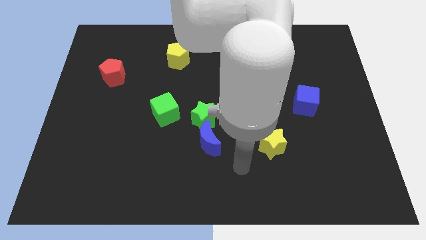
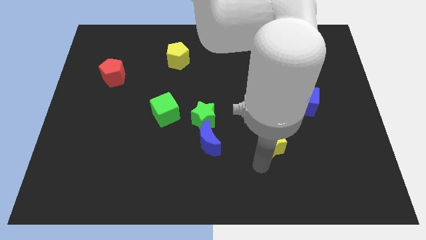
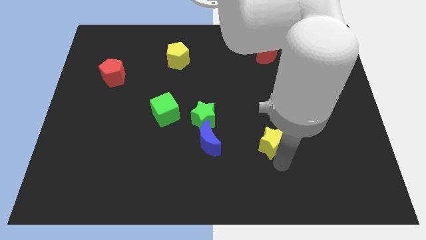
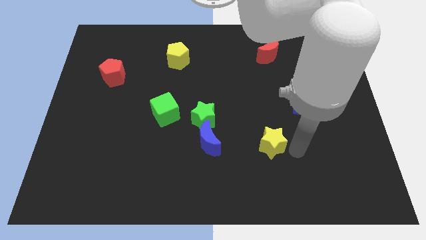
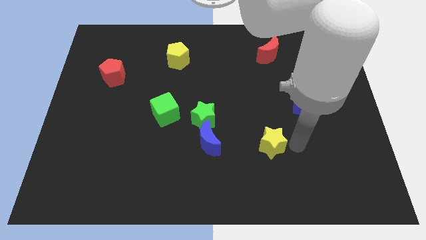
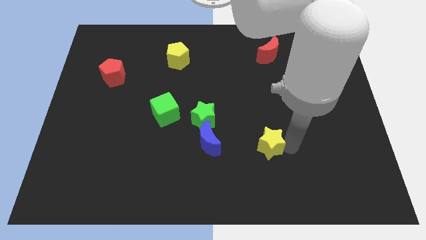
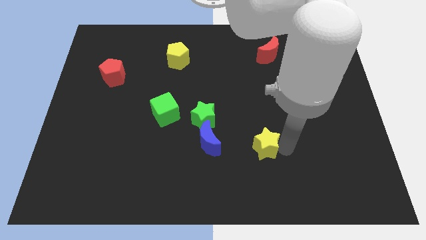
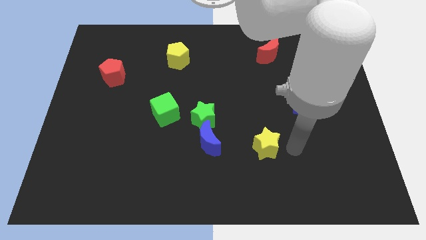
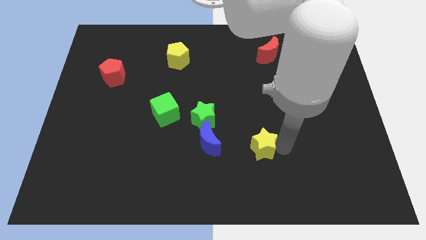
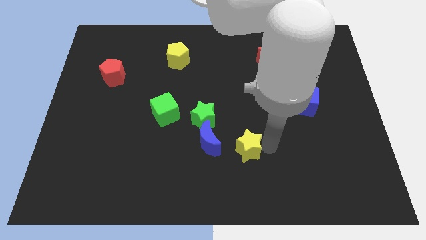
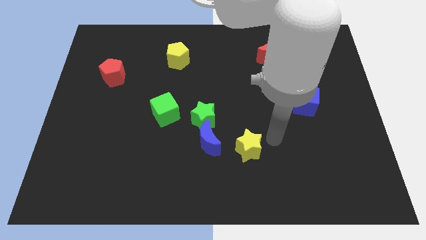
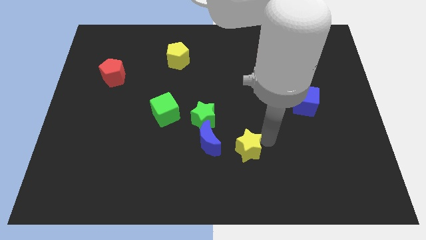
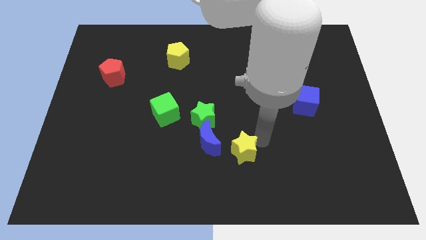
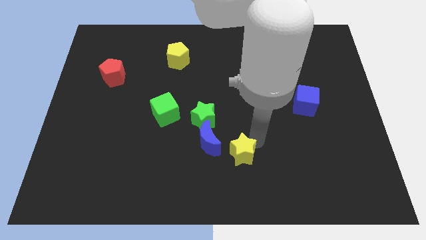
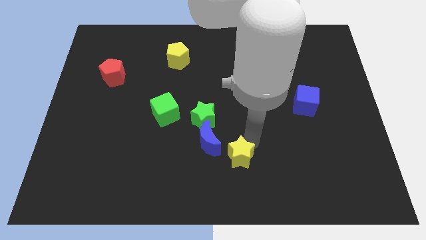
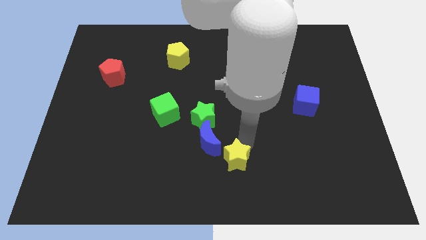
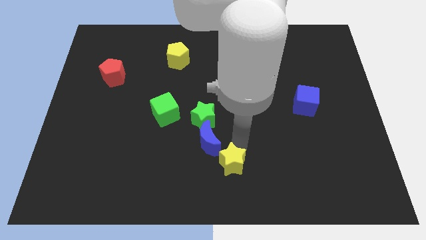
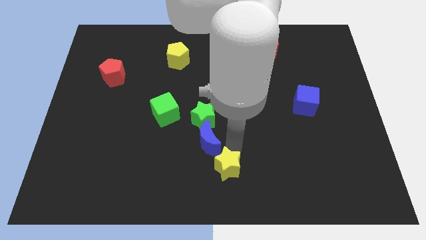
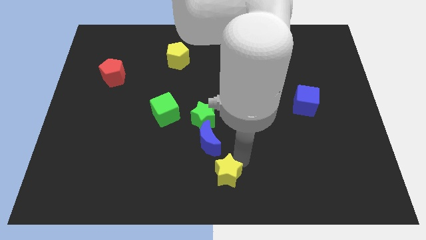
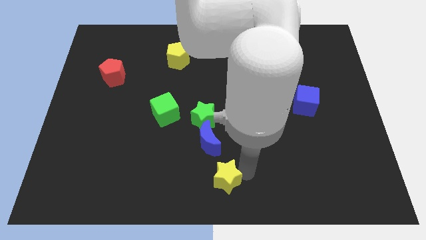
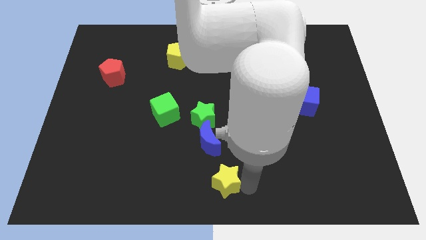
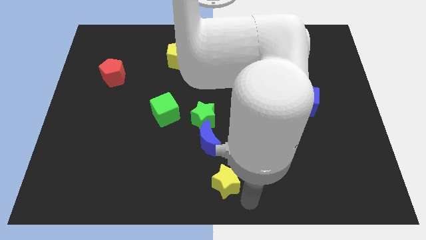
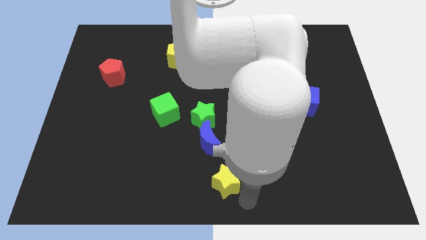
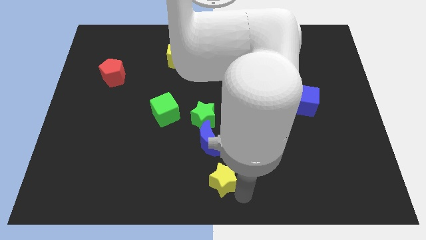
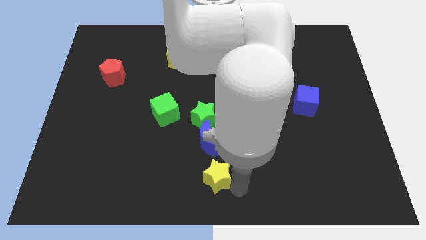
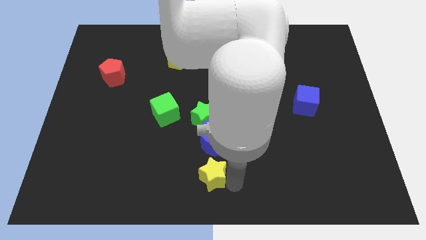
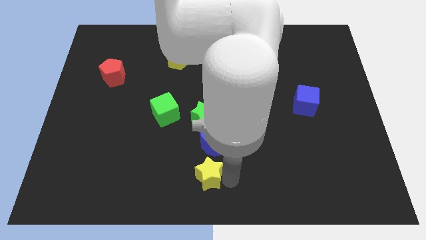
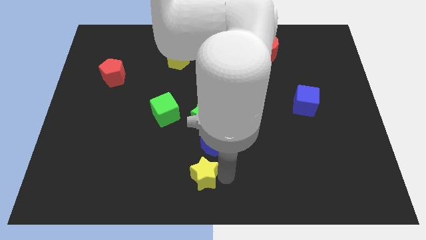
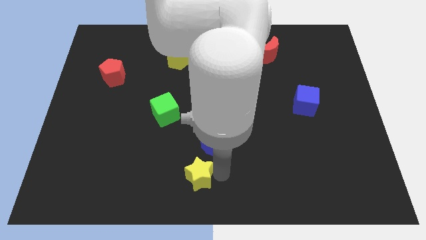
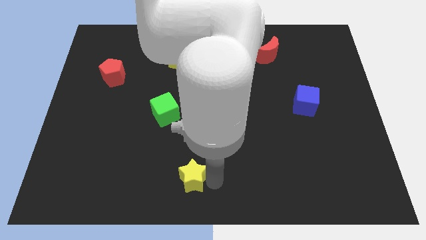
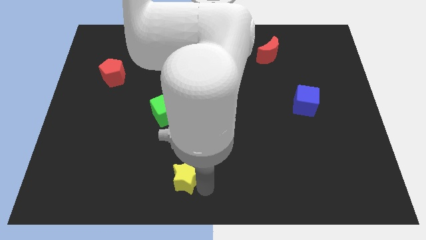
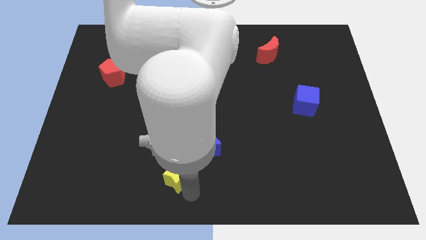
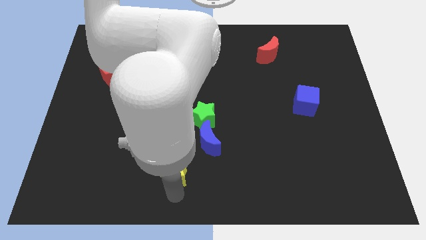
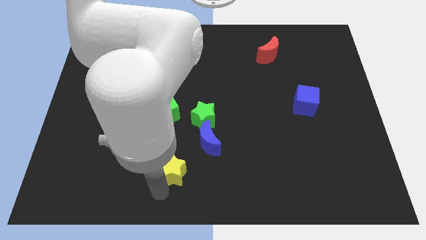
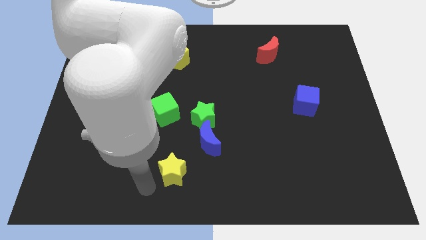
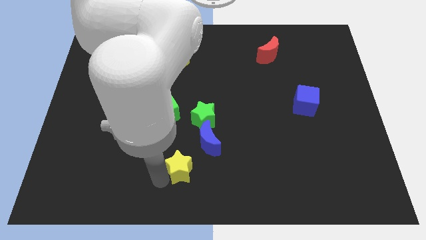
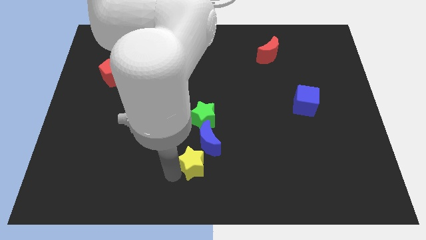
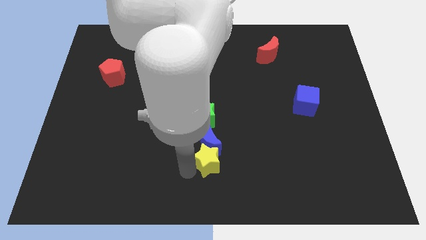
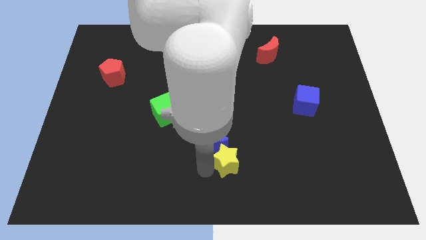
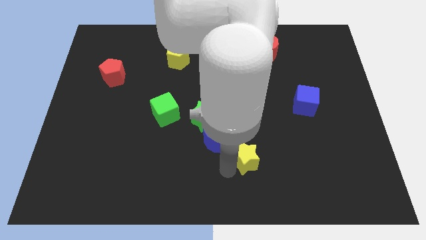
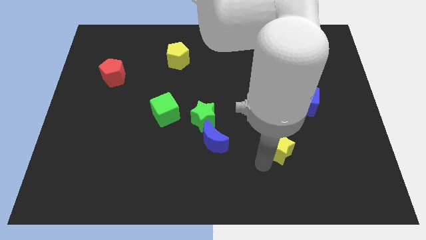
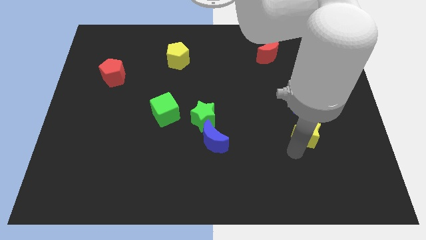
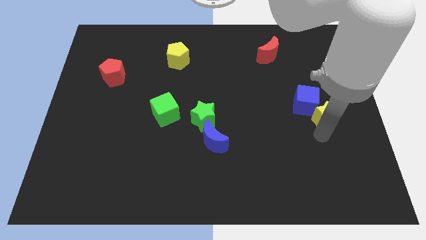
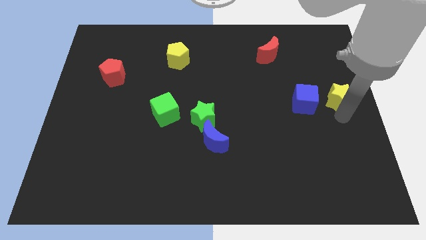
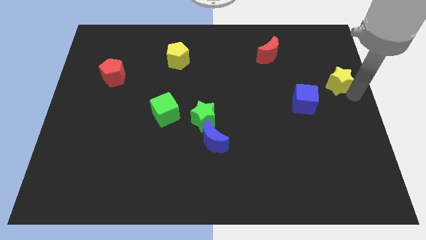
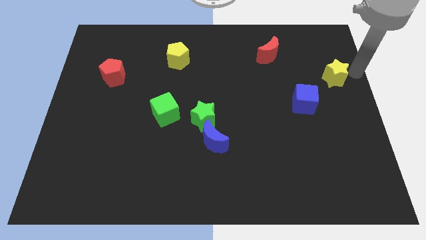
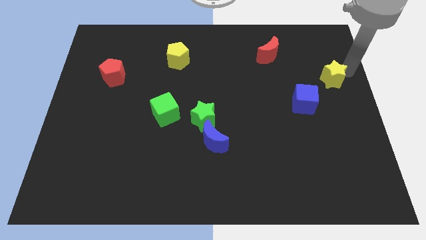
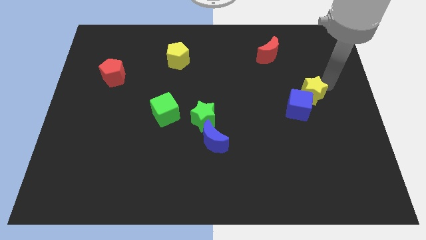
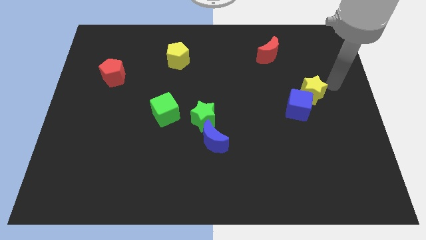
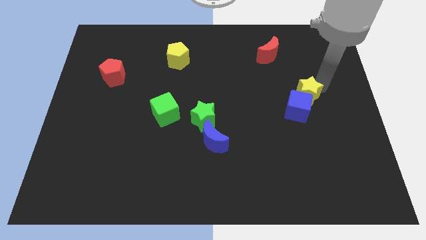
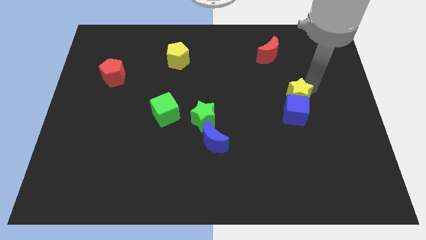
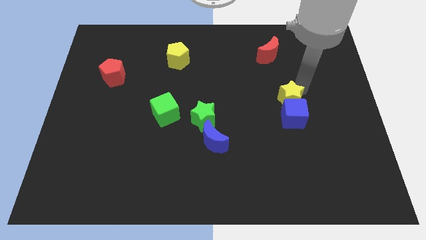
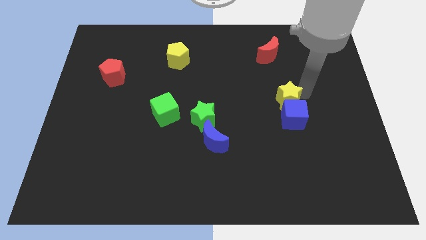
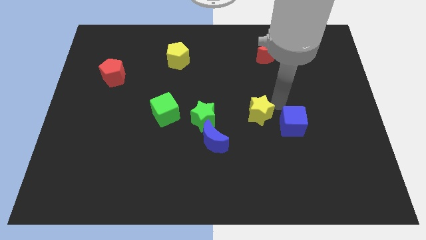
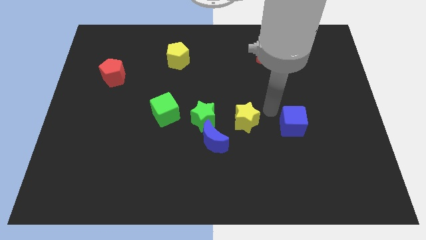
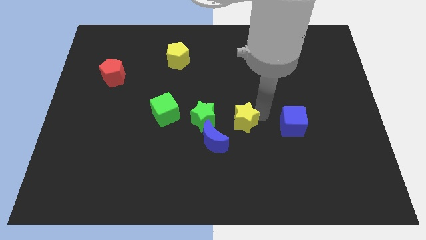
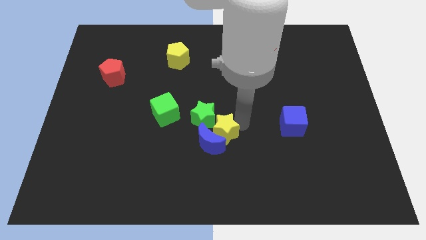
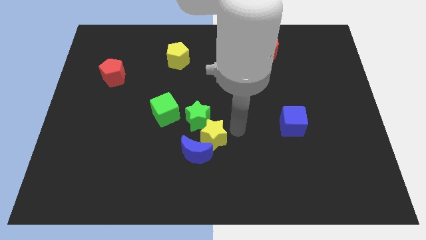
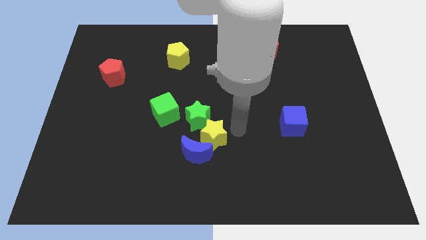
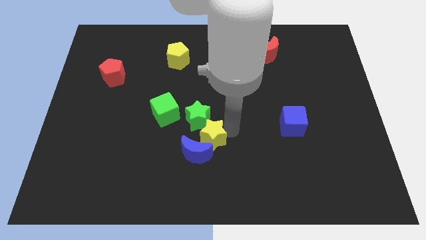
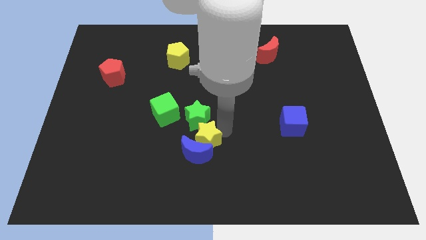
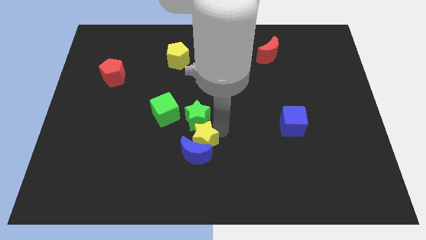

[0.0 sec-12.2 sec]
push the yellow star to the top left side of the blue moon
